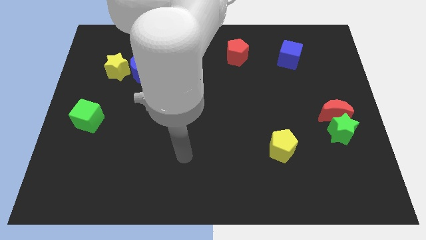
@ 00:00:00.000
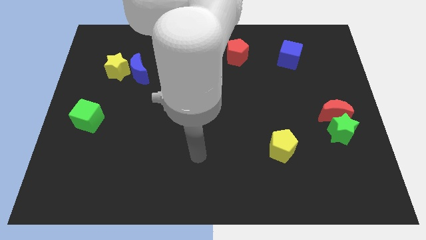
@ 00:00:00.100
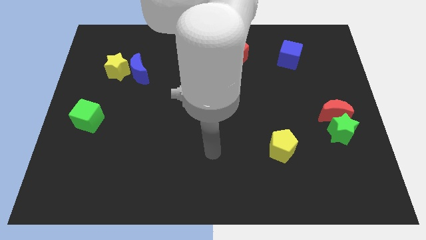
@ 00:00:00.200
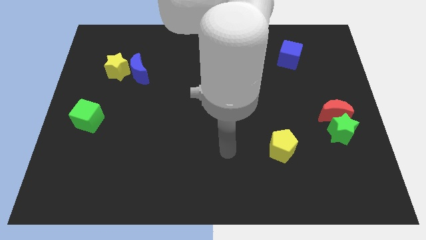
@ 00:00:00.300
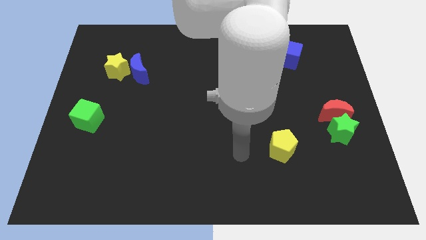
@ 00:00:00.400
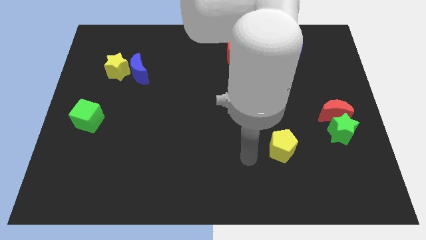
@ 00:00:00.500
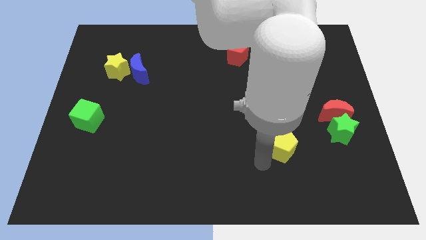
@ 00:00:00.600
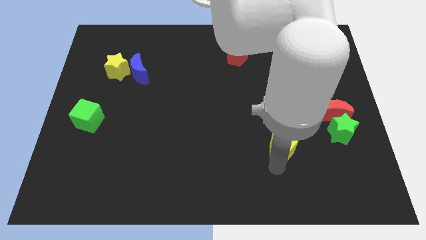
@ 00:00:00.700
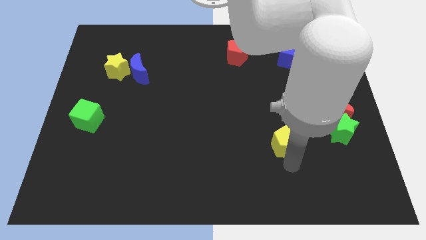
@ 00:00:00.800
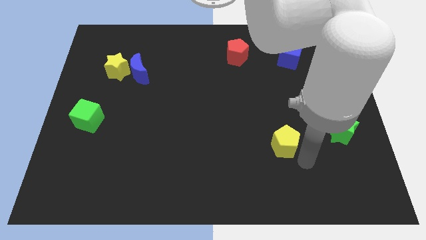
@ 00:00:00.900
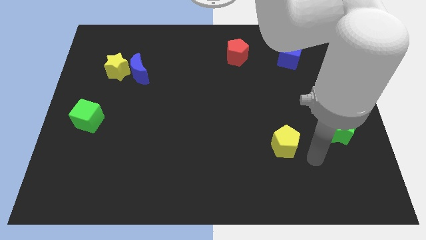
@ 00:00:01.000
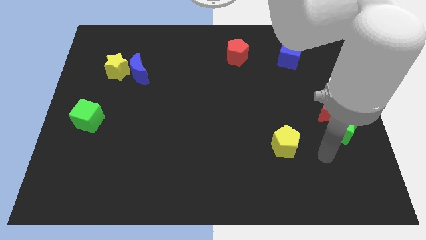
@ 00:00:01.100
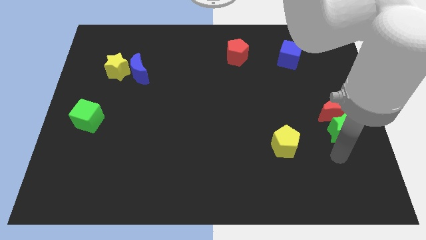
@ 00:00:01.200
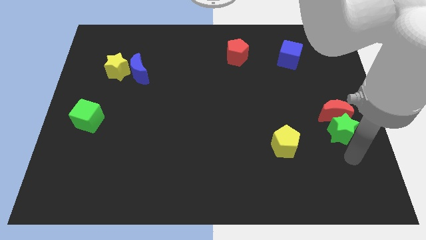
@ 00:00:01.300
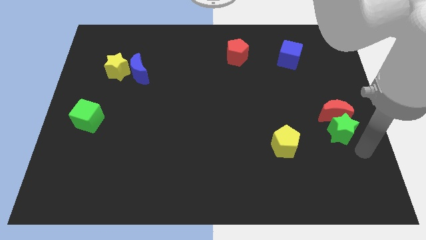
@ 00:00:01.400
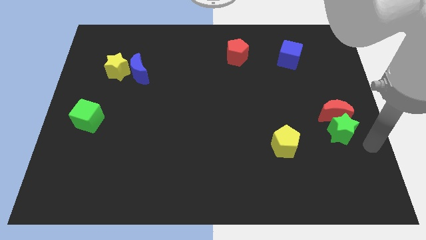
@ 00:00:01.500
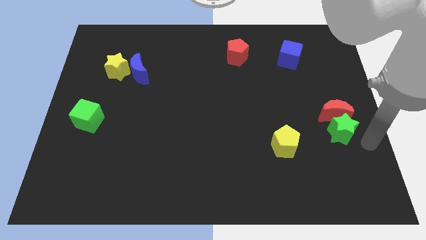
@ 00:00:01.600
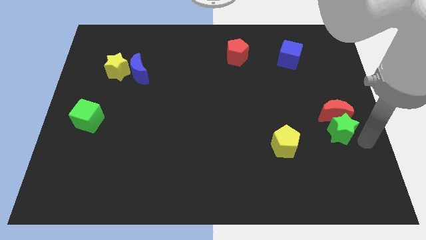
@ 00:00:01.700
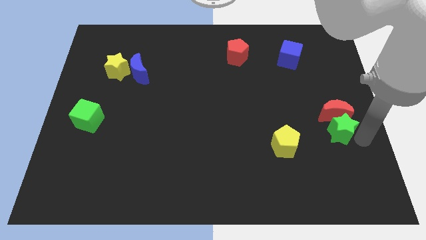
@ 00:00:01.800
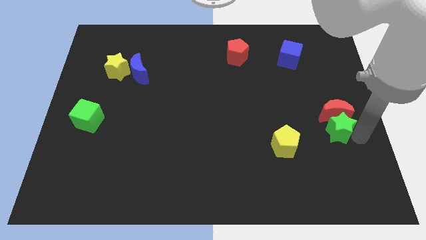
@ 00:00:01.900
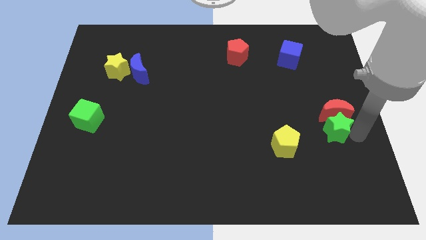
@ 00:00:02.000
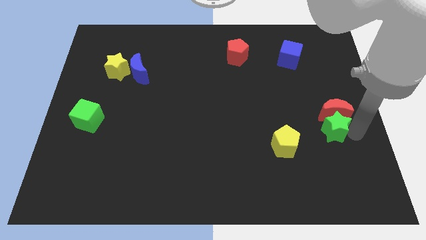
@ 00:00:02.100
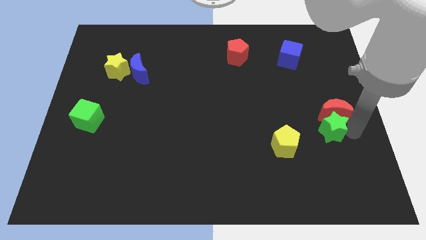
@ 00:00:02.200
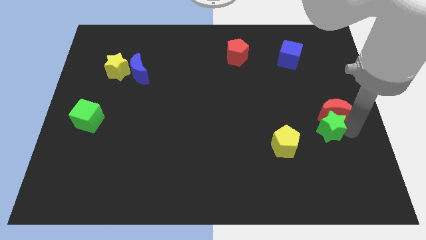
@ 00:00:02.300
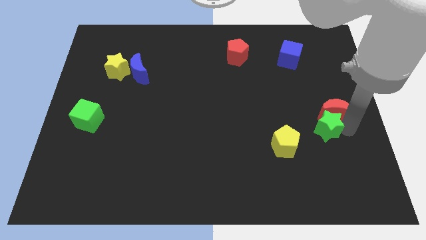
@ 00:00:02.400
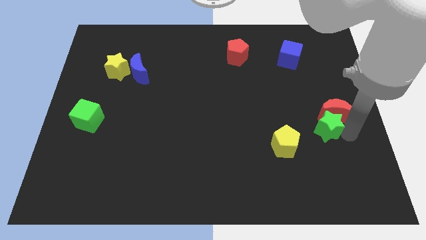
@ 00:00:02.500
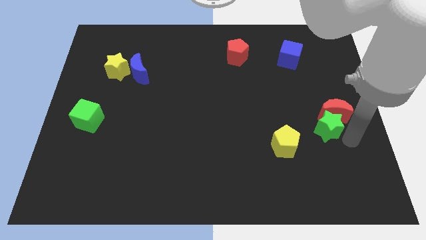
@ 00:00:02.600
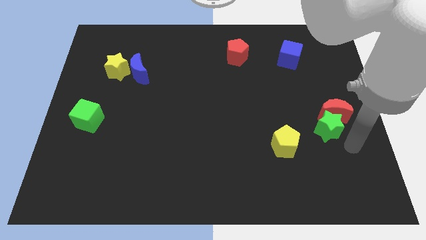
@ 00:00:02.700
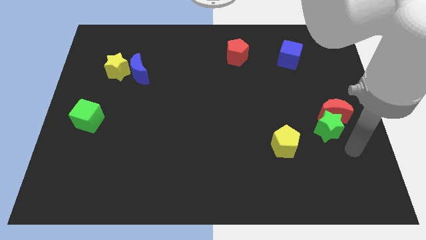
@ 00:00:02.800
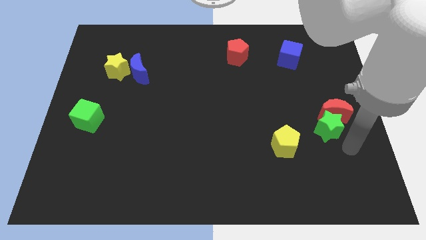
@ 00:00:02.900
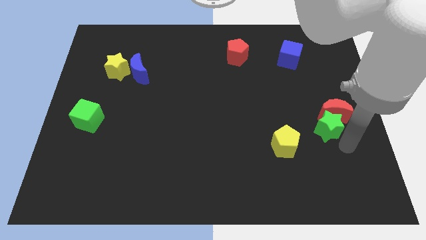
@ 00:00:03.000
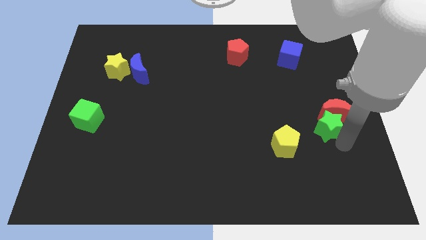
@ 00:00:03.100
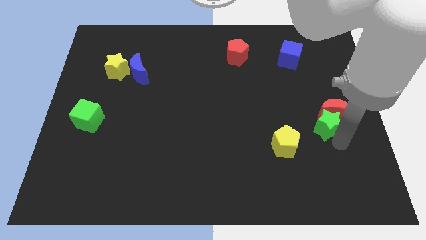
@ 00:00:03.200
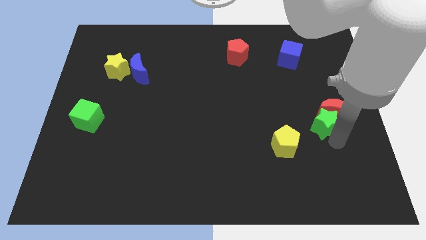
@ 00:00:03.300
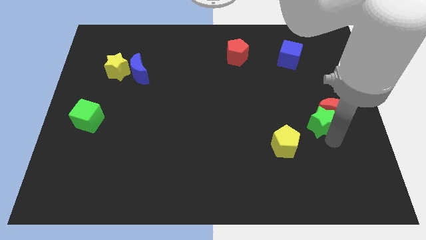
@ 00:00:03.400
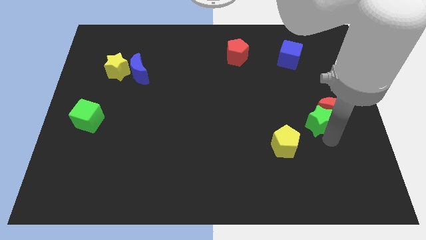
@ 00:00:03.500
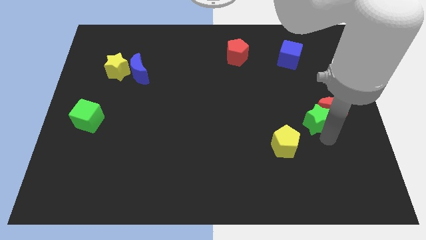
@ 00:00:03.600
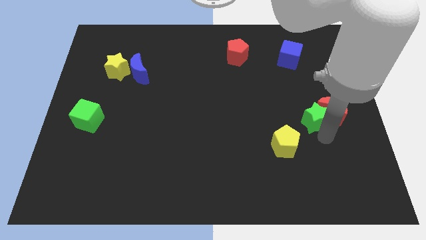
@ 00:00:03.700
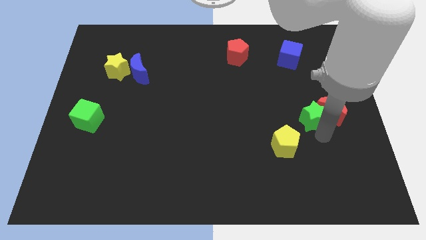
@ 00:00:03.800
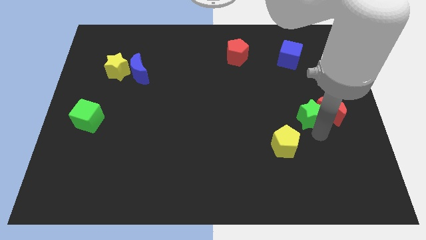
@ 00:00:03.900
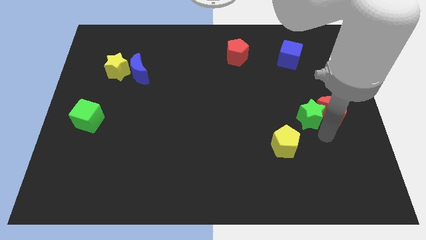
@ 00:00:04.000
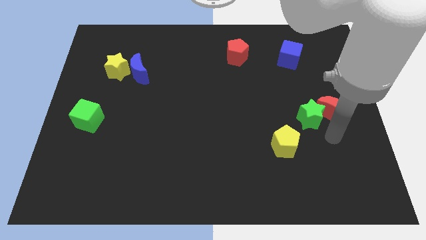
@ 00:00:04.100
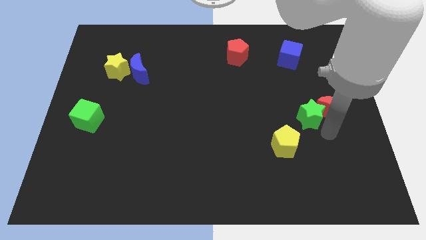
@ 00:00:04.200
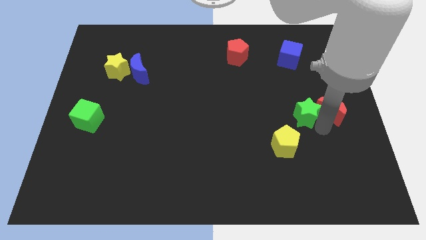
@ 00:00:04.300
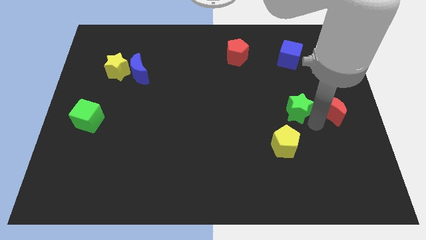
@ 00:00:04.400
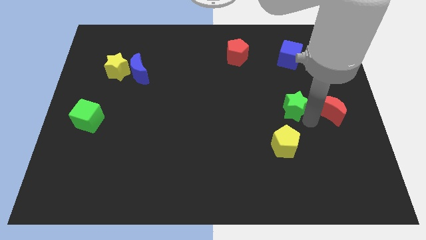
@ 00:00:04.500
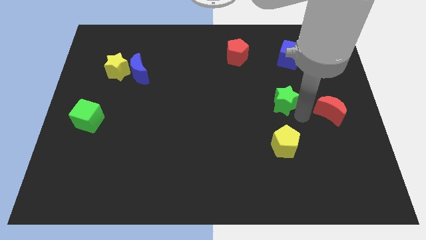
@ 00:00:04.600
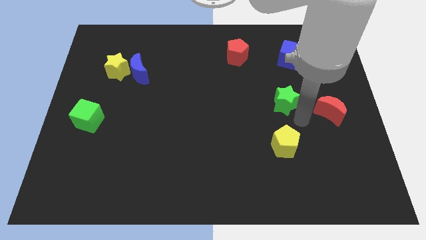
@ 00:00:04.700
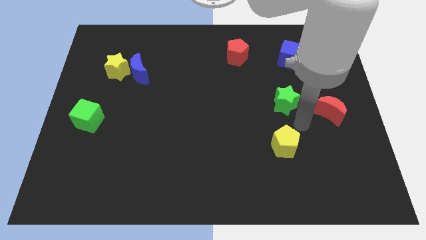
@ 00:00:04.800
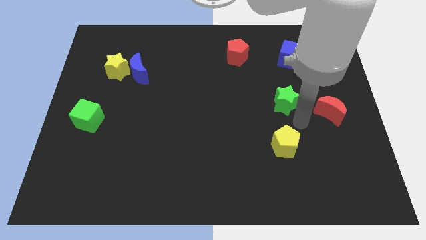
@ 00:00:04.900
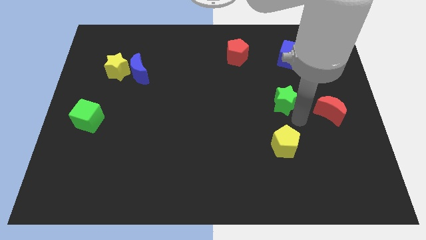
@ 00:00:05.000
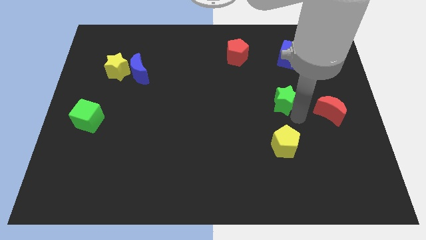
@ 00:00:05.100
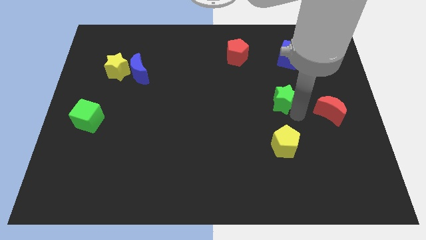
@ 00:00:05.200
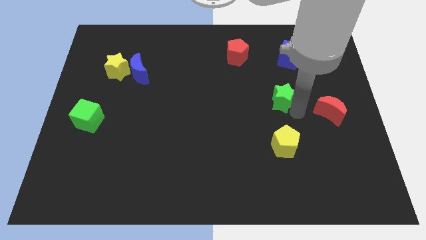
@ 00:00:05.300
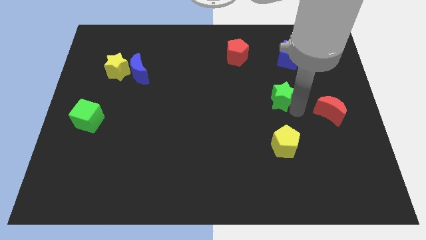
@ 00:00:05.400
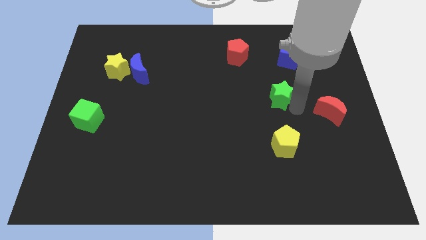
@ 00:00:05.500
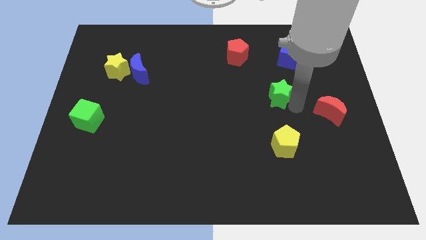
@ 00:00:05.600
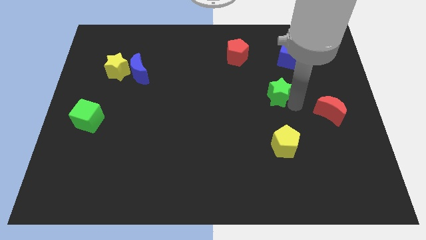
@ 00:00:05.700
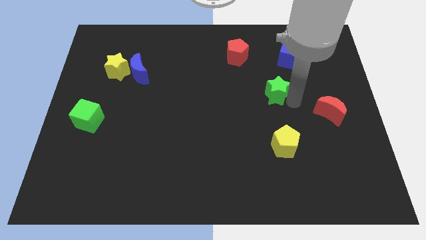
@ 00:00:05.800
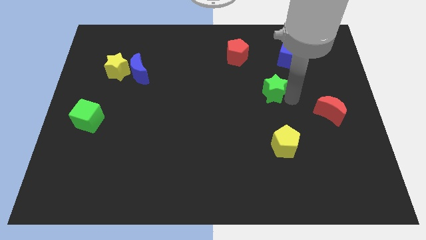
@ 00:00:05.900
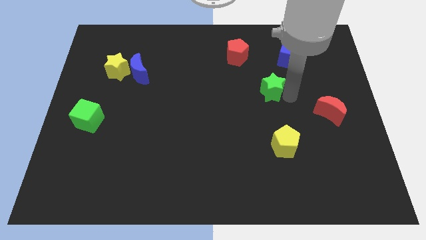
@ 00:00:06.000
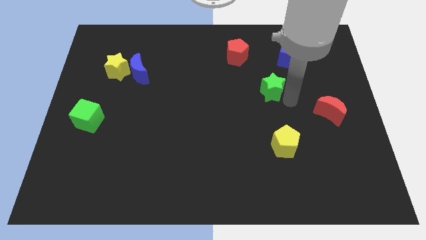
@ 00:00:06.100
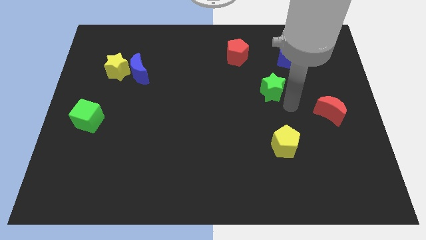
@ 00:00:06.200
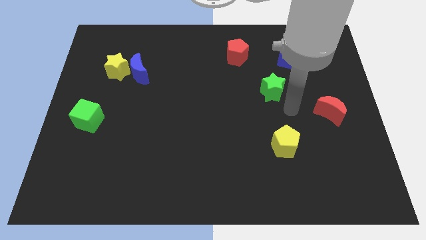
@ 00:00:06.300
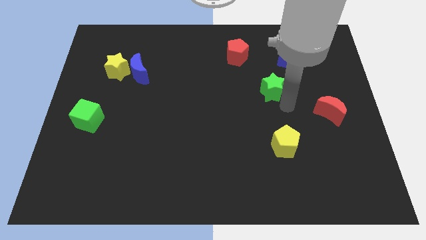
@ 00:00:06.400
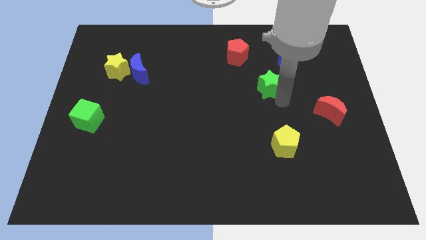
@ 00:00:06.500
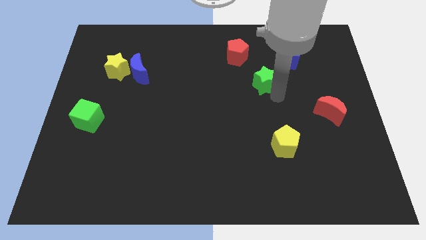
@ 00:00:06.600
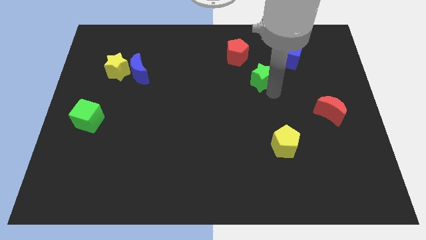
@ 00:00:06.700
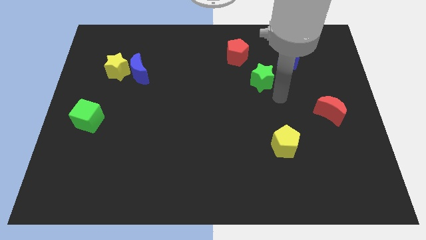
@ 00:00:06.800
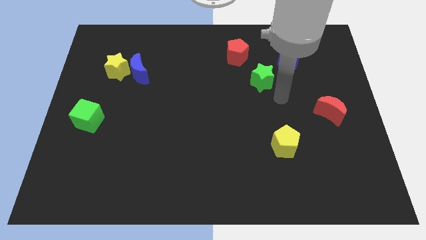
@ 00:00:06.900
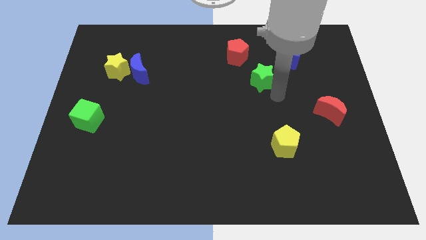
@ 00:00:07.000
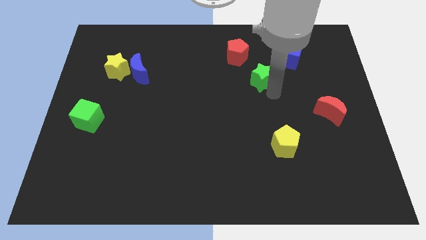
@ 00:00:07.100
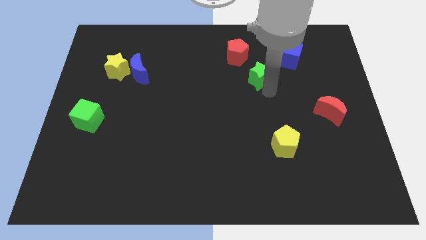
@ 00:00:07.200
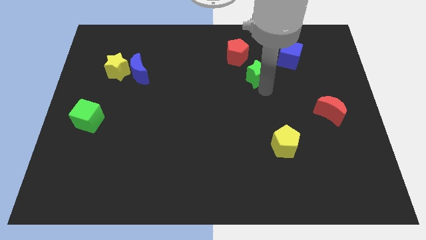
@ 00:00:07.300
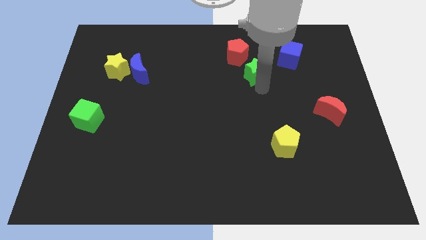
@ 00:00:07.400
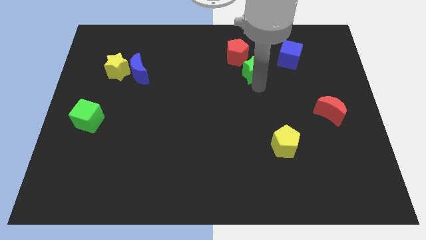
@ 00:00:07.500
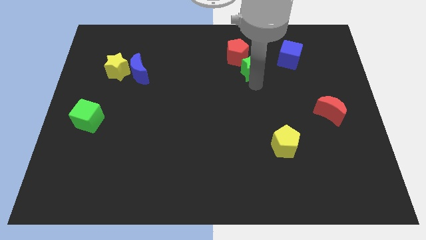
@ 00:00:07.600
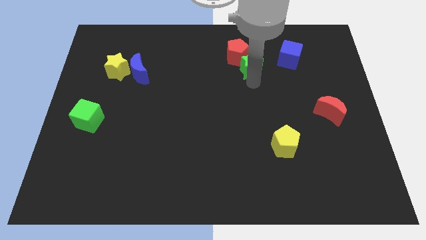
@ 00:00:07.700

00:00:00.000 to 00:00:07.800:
put the green star next to the red pentagon
